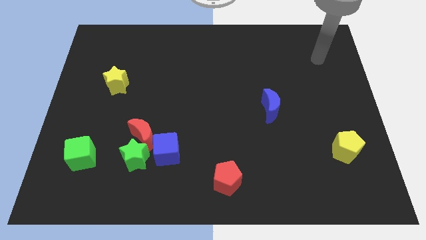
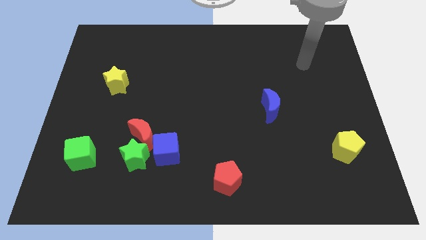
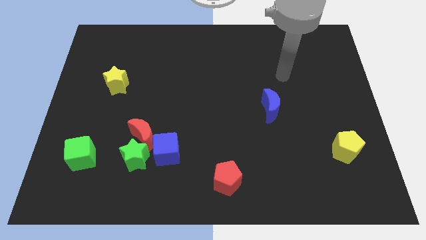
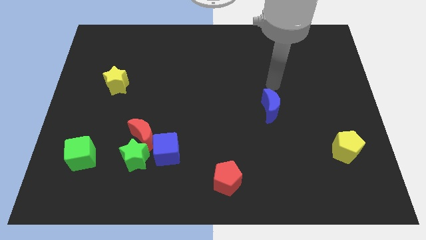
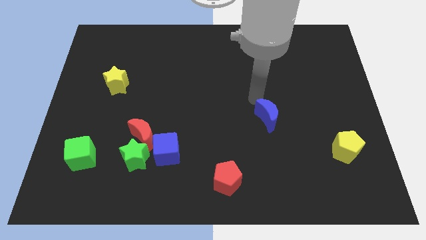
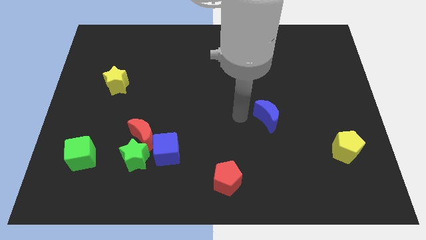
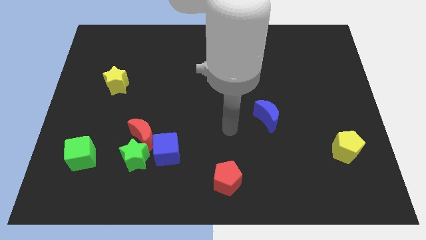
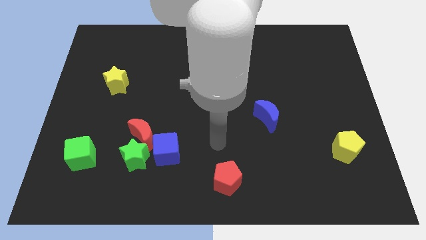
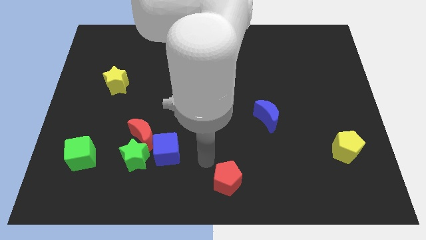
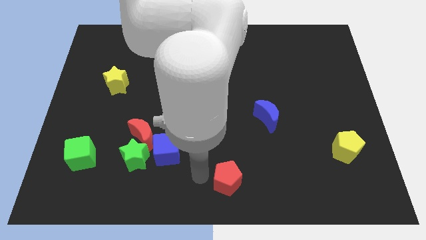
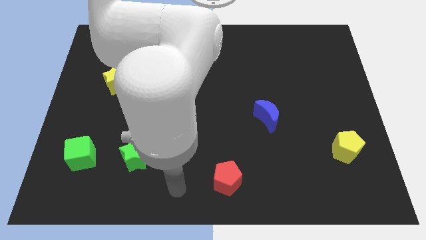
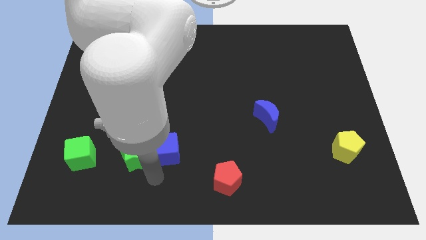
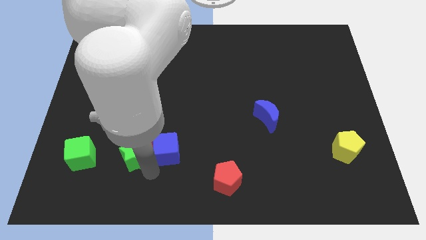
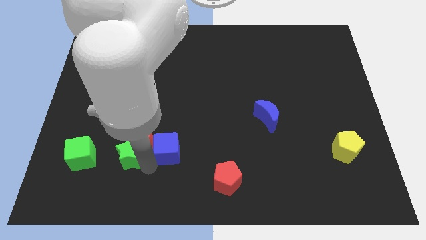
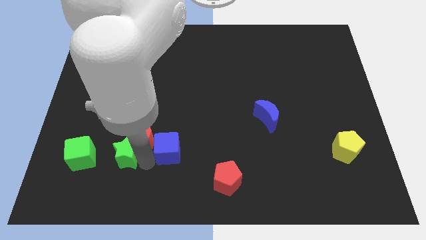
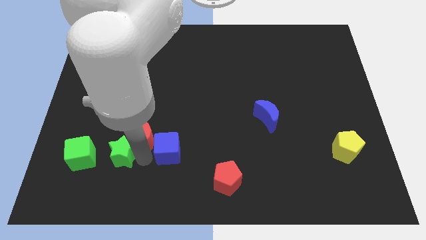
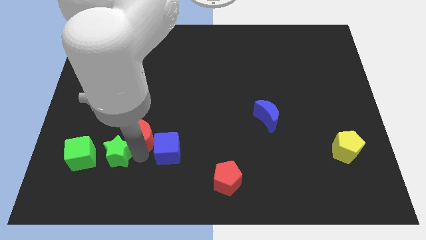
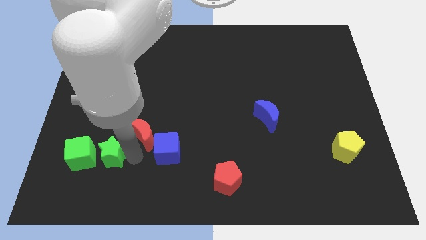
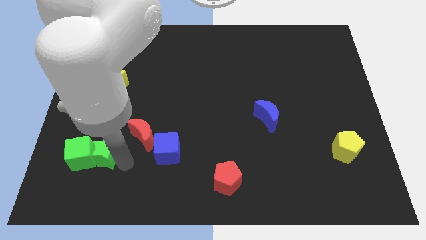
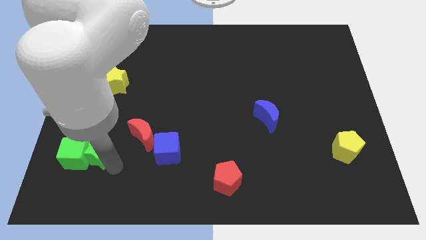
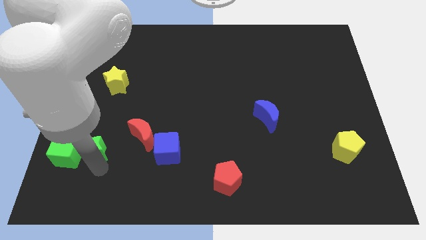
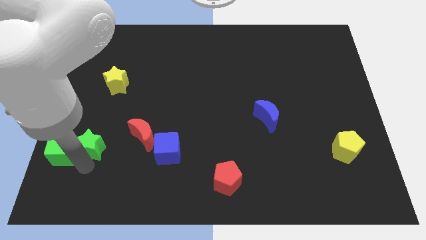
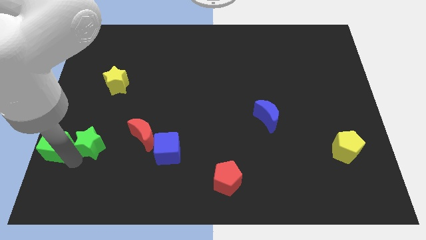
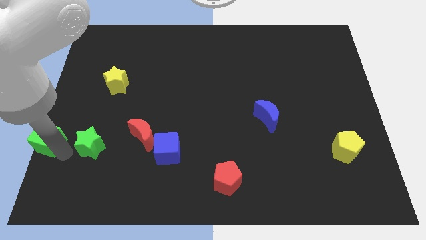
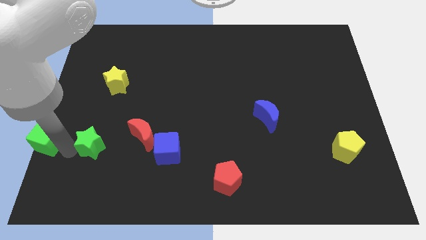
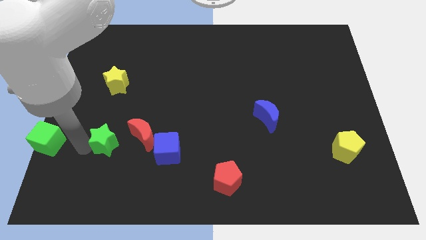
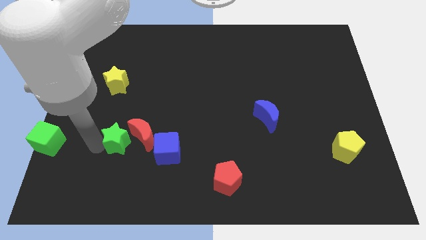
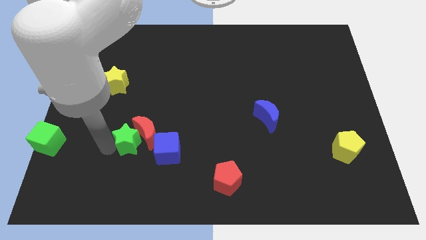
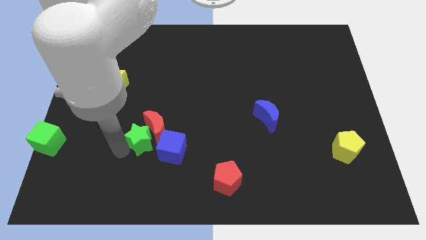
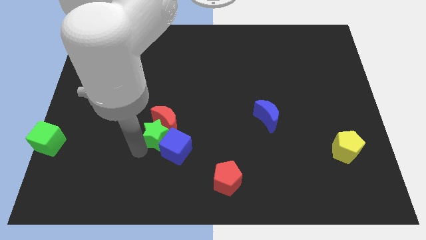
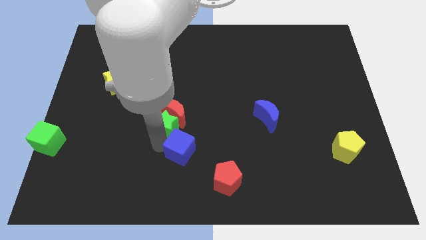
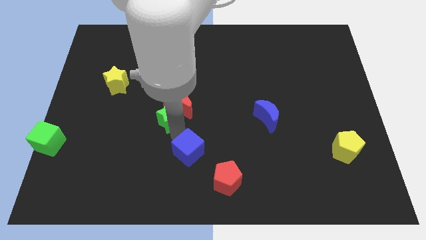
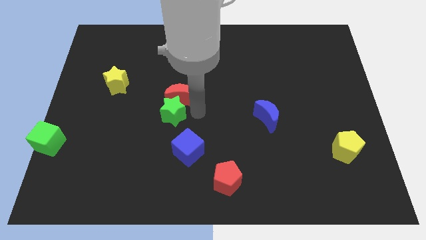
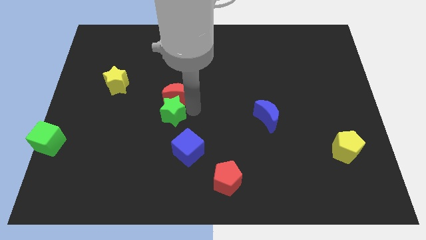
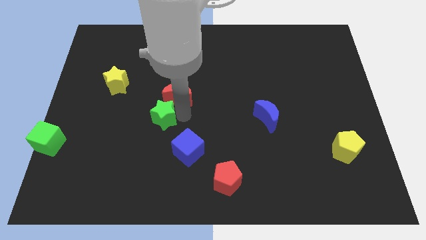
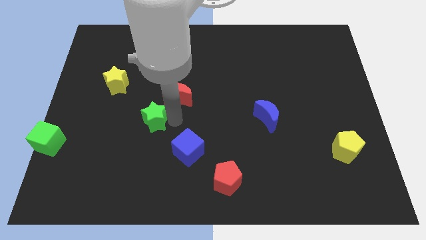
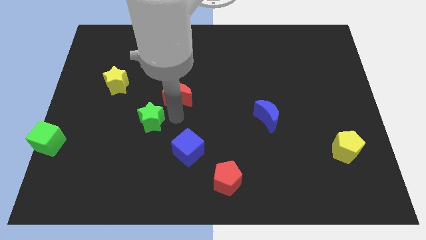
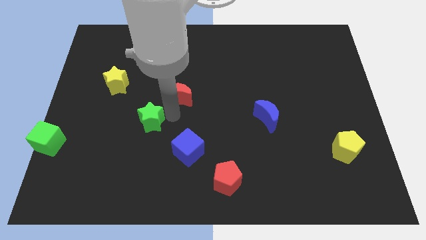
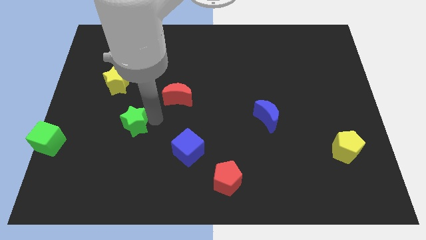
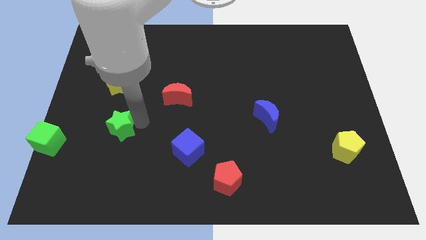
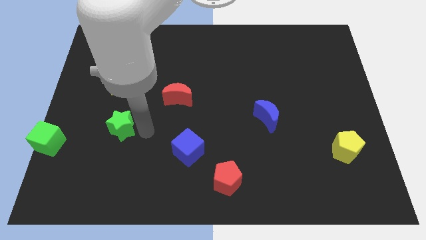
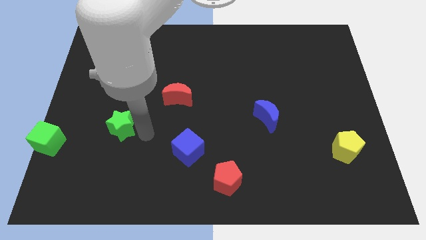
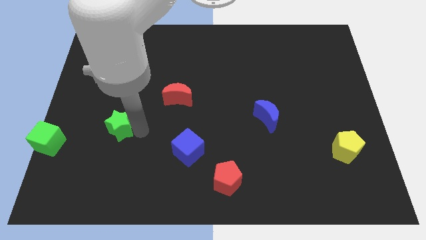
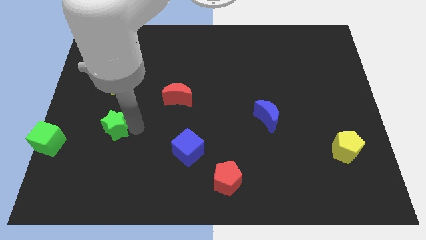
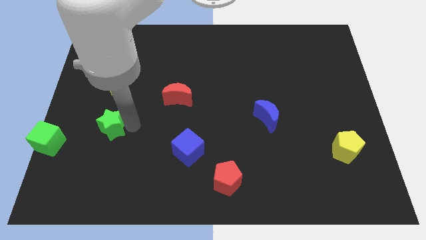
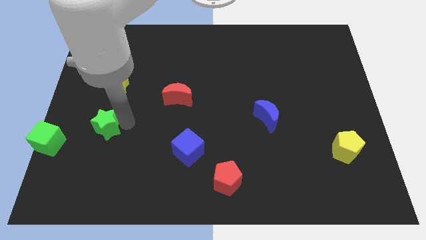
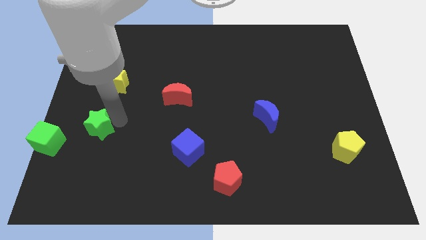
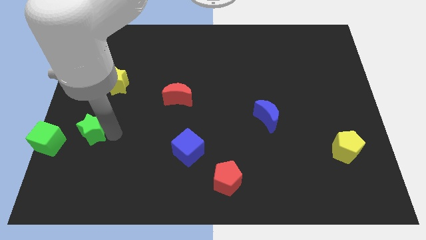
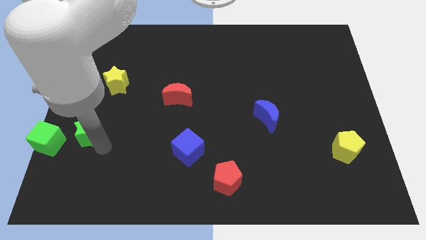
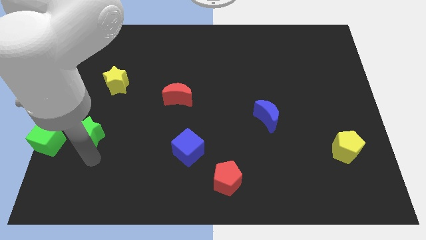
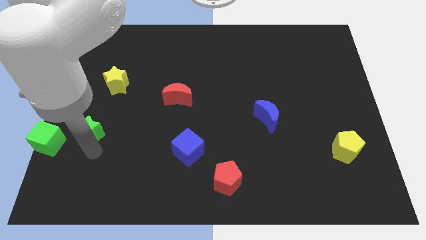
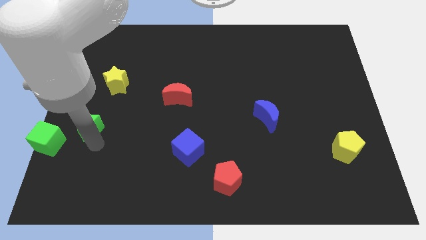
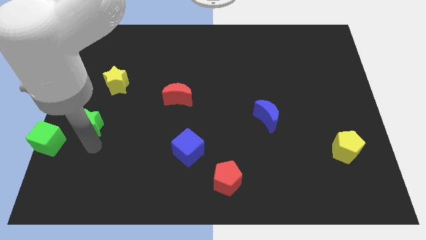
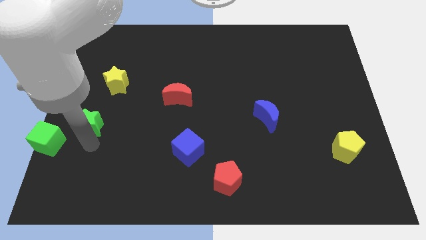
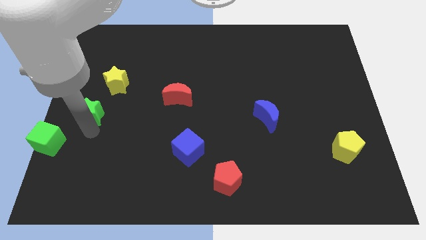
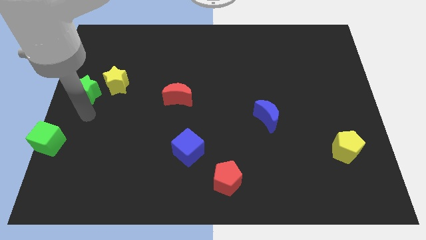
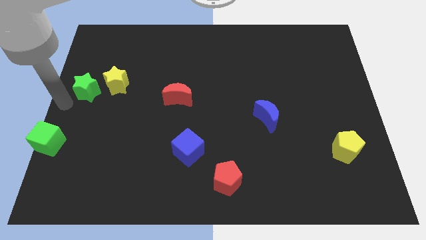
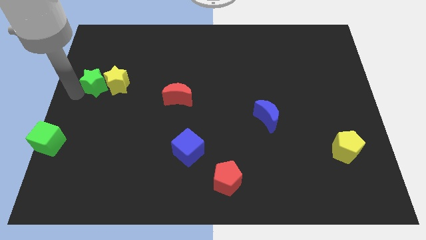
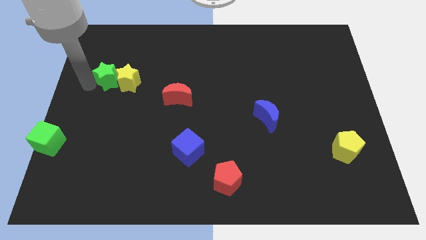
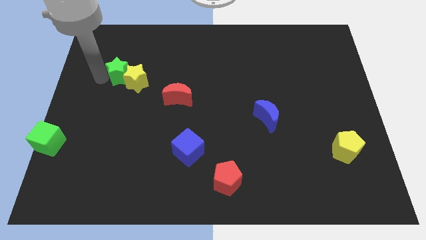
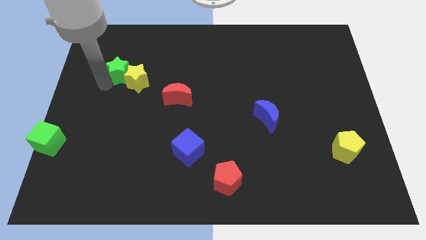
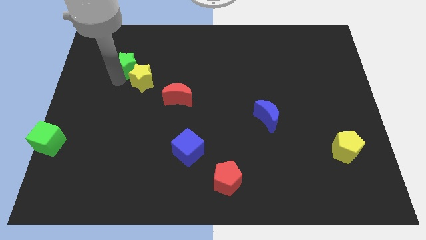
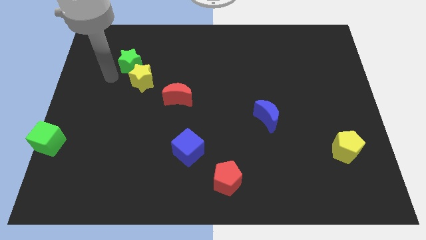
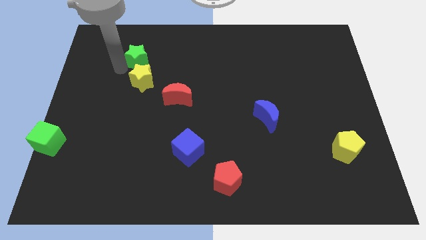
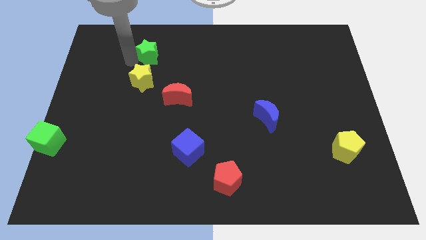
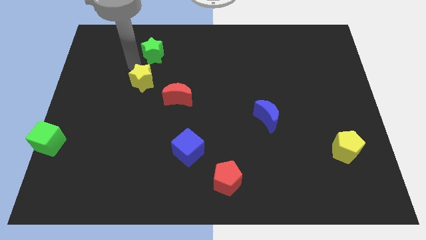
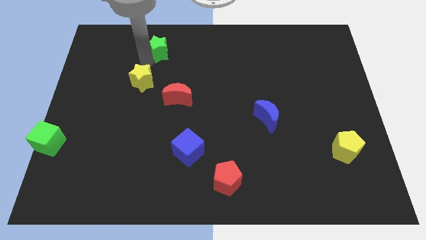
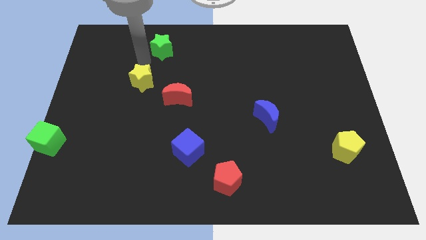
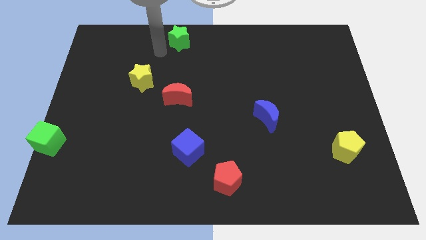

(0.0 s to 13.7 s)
put the green star to the top
